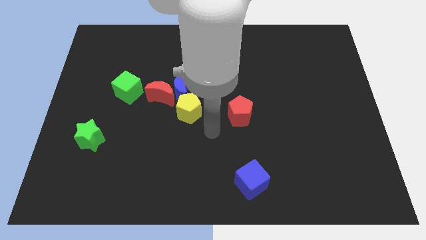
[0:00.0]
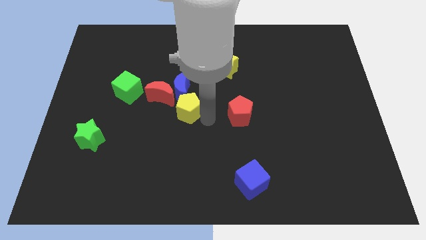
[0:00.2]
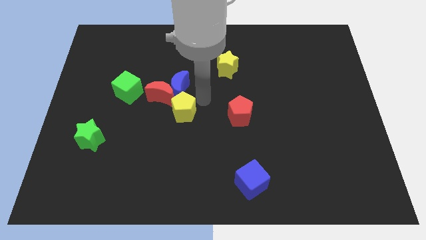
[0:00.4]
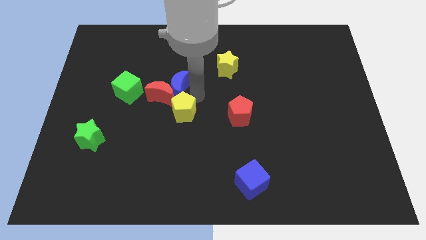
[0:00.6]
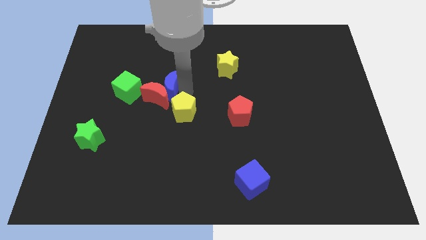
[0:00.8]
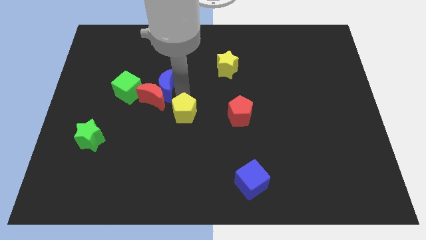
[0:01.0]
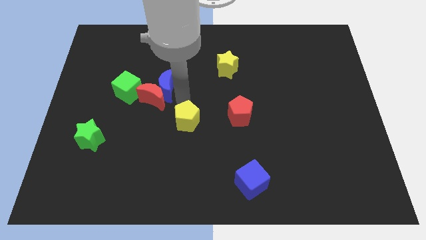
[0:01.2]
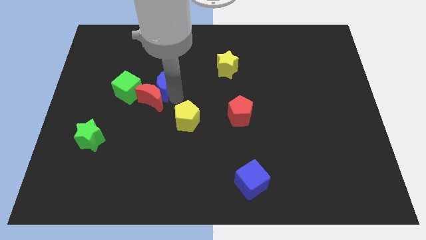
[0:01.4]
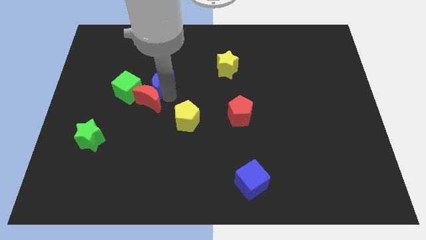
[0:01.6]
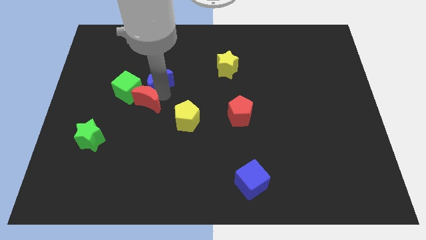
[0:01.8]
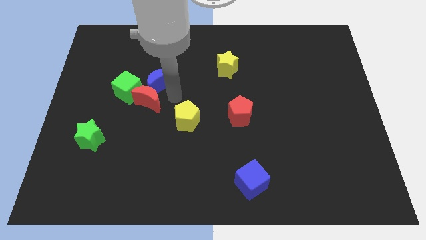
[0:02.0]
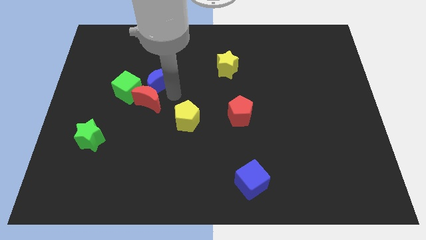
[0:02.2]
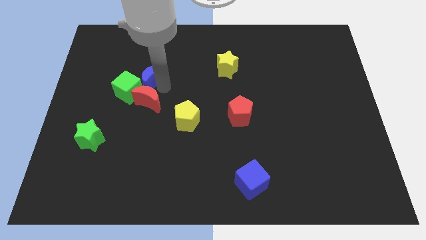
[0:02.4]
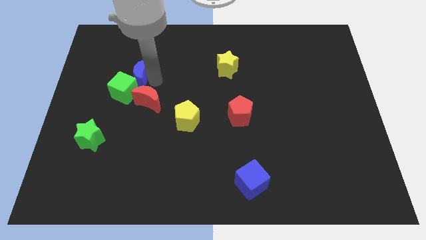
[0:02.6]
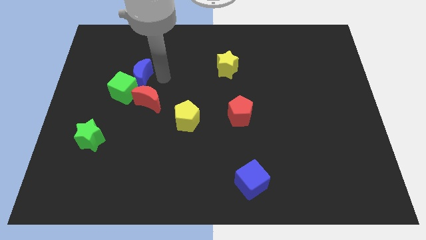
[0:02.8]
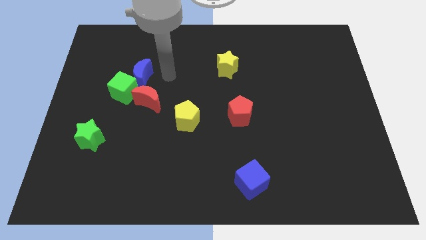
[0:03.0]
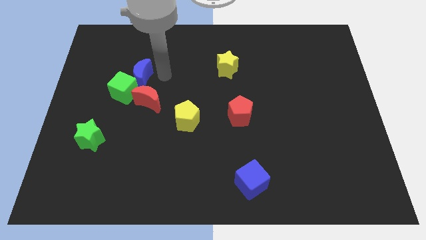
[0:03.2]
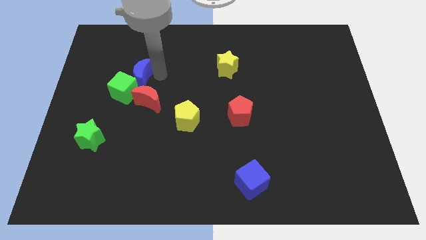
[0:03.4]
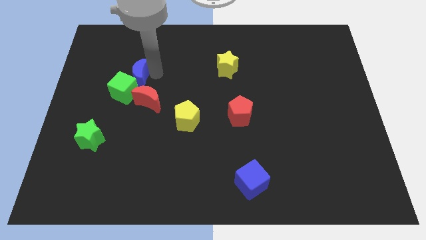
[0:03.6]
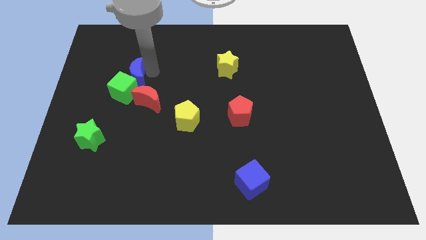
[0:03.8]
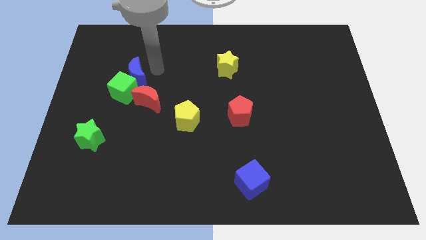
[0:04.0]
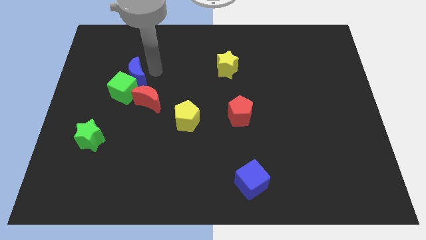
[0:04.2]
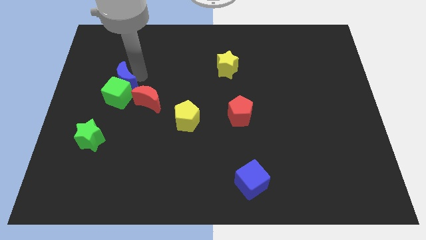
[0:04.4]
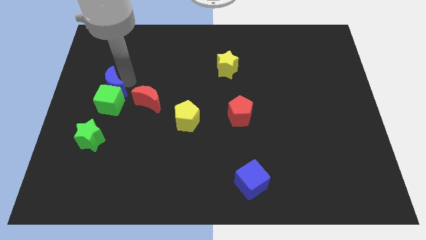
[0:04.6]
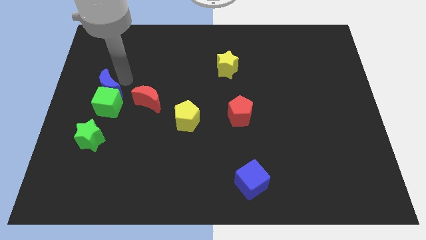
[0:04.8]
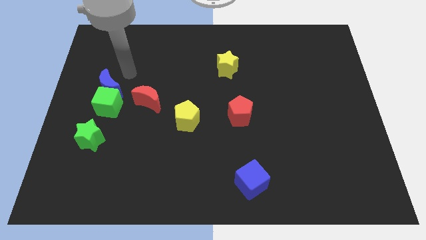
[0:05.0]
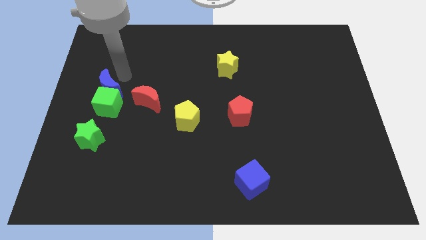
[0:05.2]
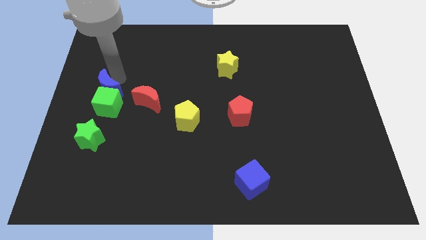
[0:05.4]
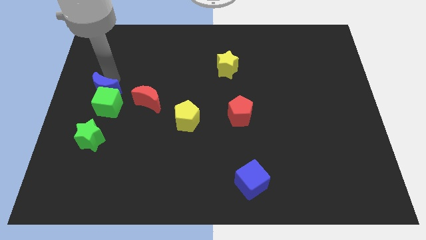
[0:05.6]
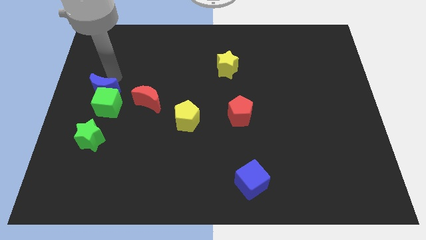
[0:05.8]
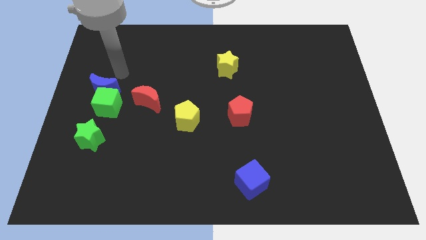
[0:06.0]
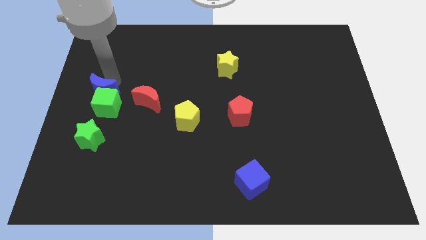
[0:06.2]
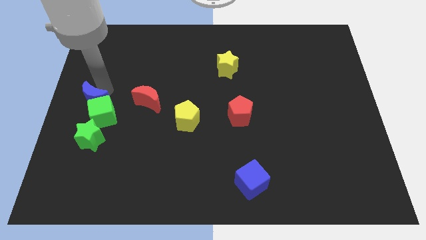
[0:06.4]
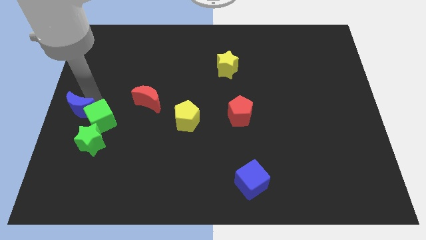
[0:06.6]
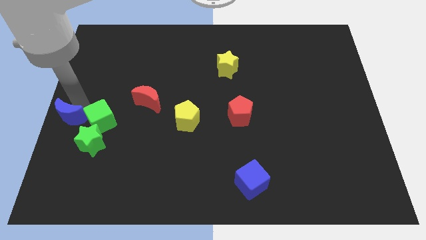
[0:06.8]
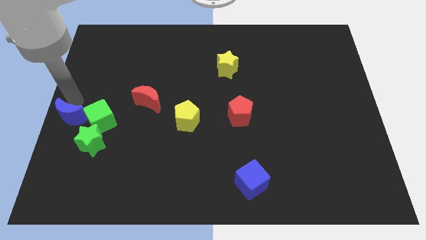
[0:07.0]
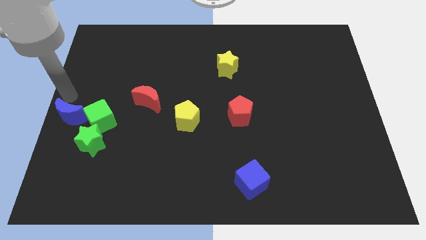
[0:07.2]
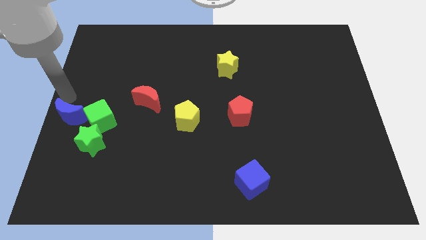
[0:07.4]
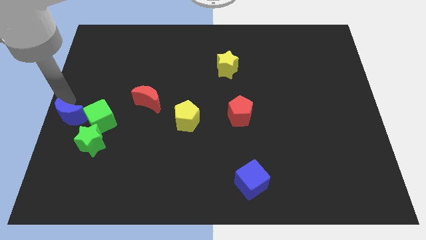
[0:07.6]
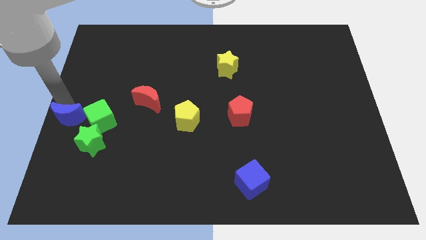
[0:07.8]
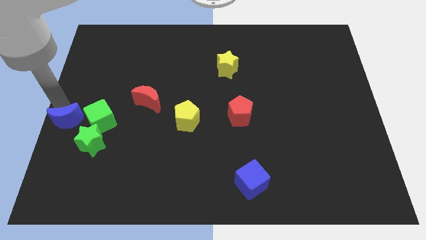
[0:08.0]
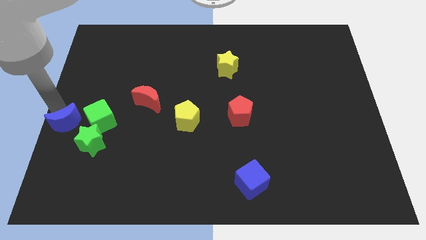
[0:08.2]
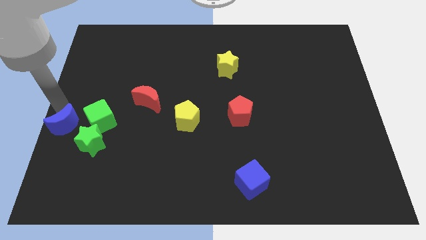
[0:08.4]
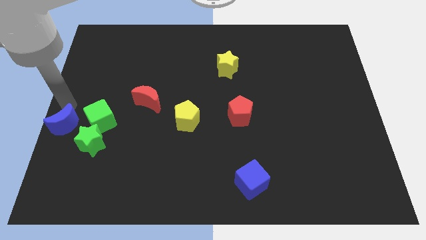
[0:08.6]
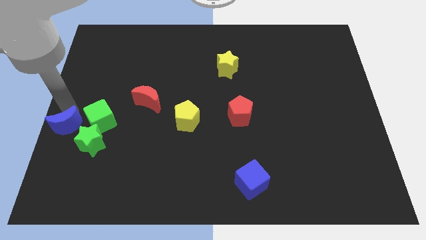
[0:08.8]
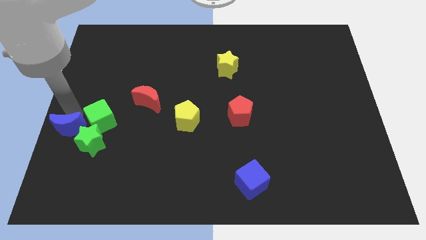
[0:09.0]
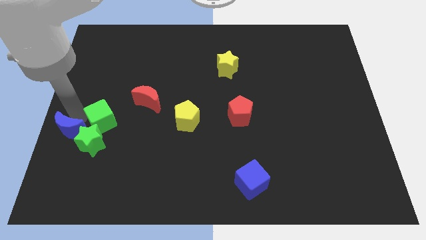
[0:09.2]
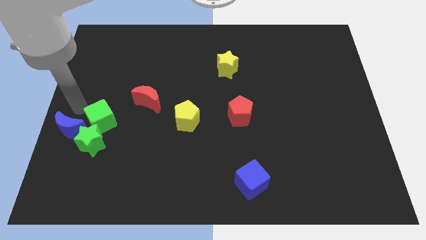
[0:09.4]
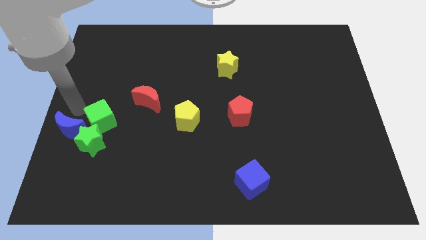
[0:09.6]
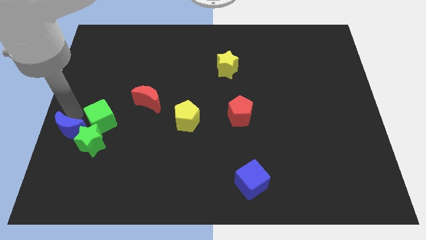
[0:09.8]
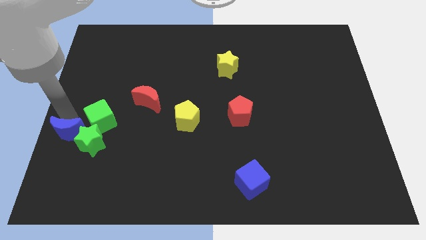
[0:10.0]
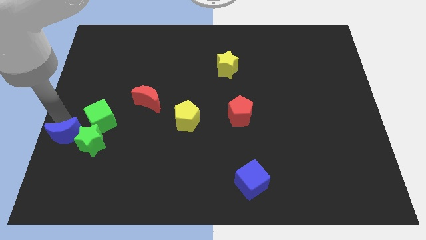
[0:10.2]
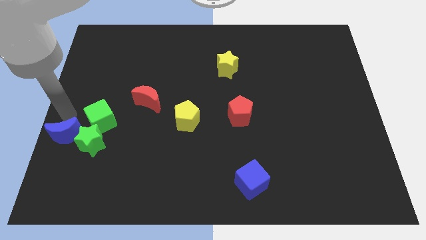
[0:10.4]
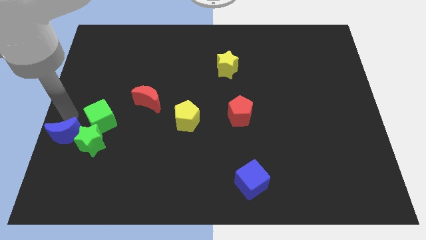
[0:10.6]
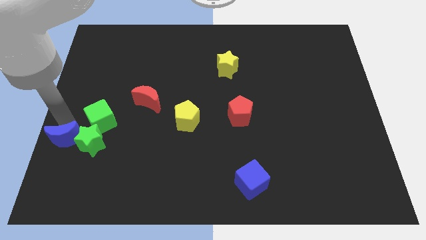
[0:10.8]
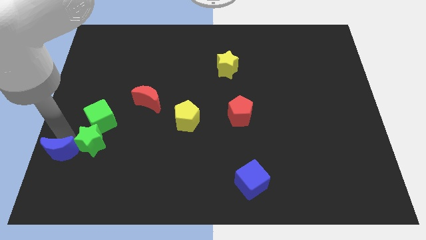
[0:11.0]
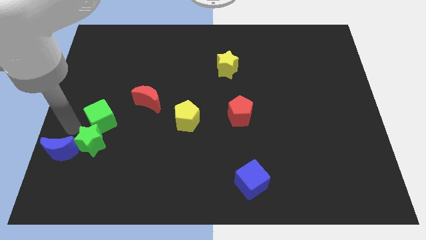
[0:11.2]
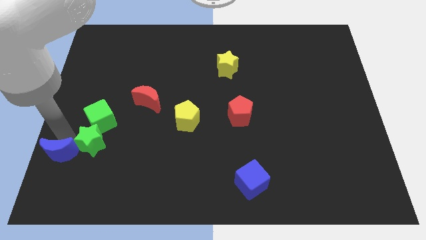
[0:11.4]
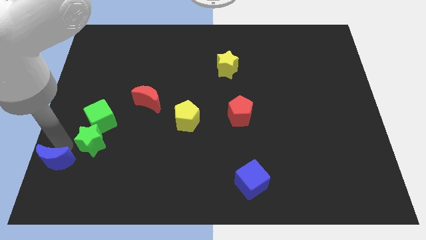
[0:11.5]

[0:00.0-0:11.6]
move the blue moon to the bottom left of the board
